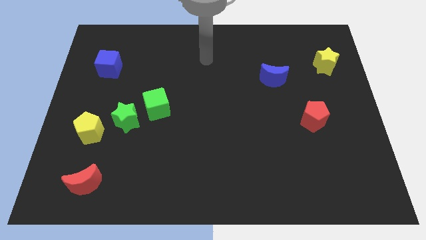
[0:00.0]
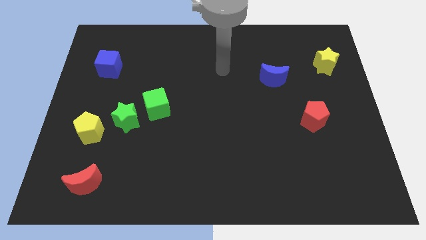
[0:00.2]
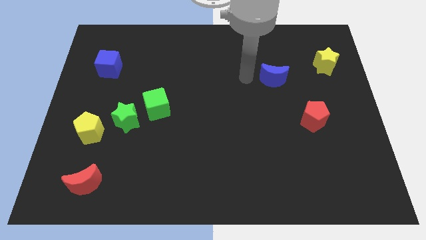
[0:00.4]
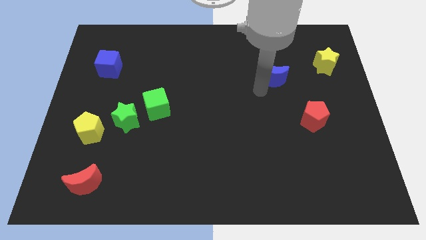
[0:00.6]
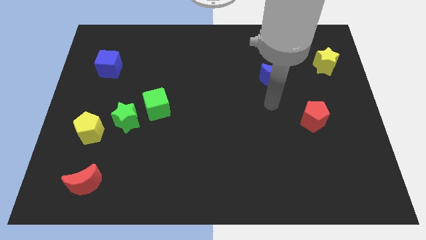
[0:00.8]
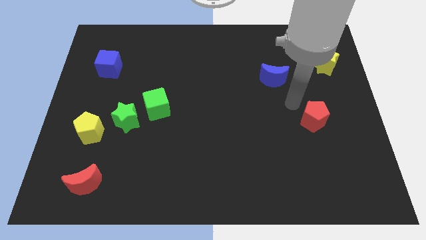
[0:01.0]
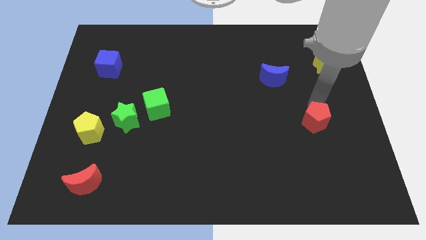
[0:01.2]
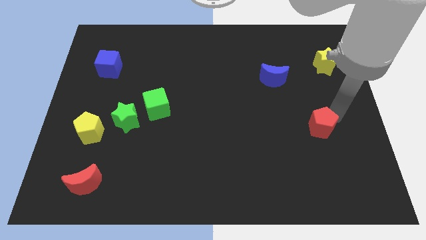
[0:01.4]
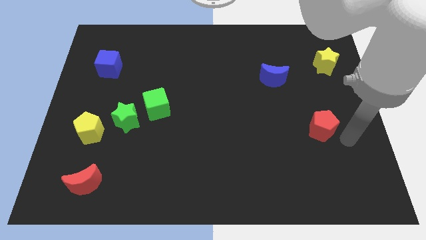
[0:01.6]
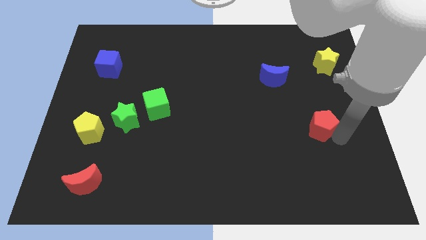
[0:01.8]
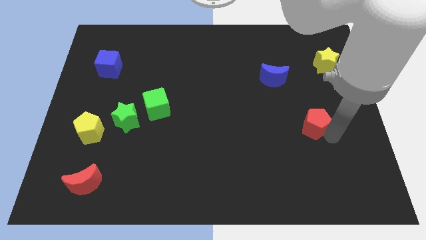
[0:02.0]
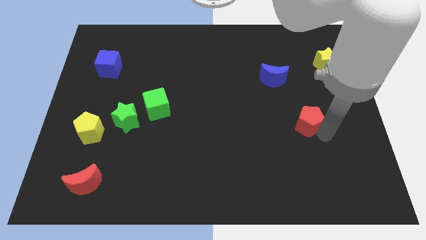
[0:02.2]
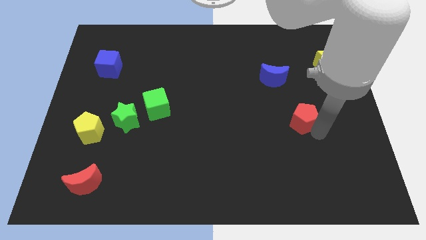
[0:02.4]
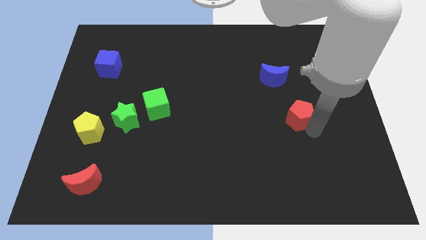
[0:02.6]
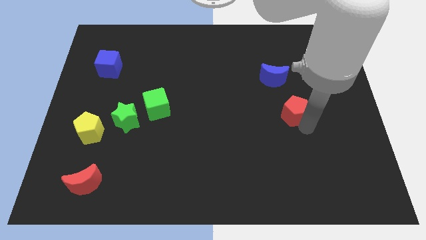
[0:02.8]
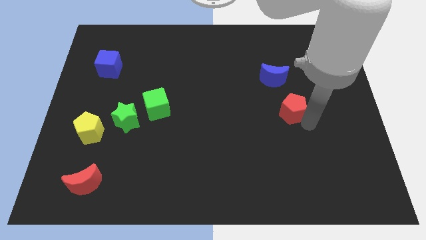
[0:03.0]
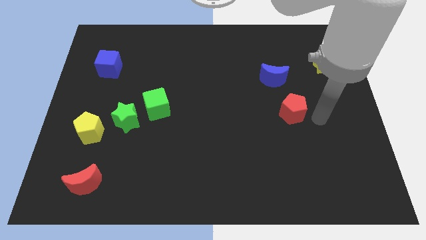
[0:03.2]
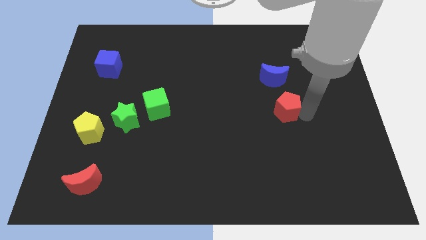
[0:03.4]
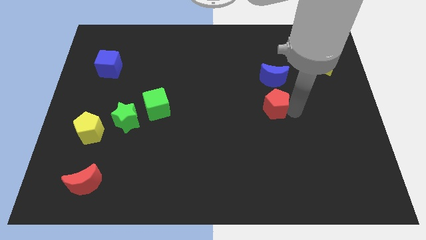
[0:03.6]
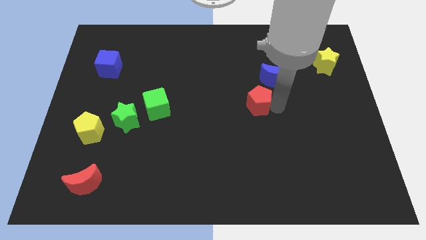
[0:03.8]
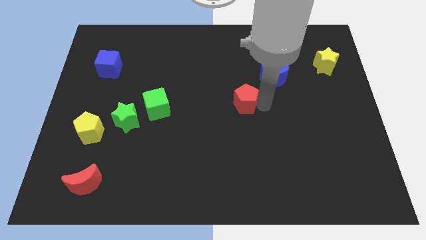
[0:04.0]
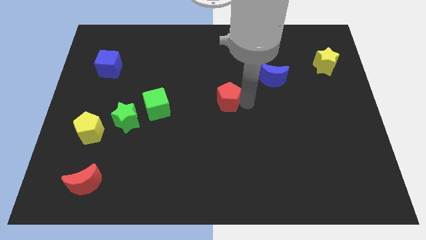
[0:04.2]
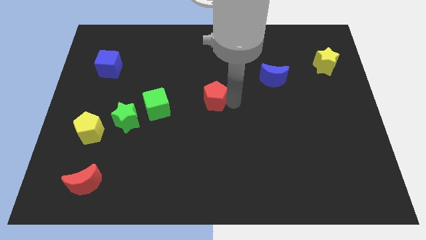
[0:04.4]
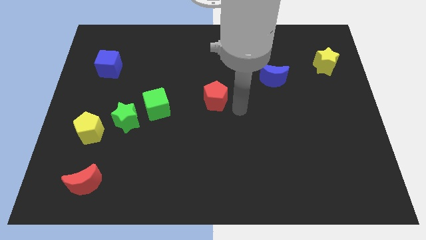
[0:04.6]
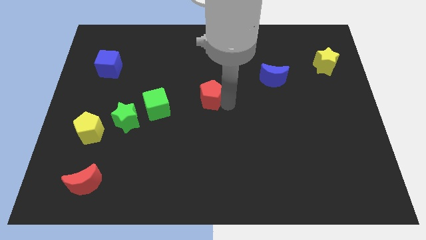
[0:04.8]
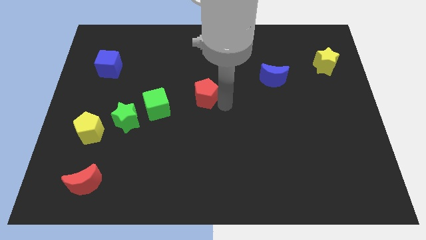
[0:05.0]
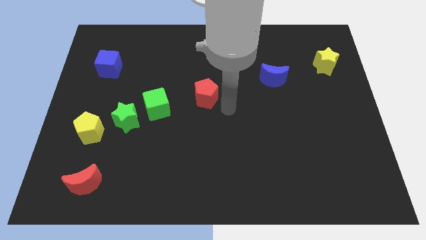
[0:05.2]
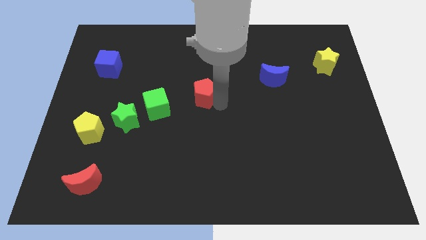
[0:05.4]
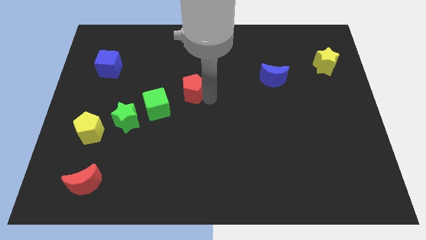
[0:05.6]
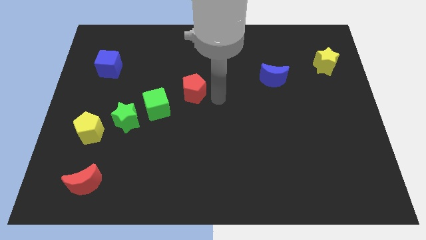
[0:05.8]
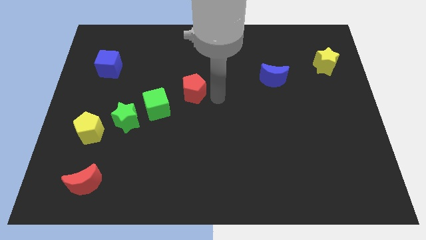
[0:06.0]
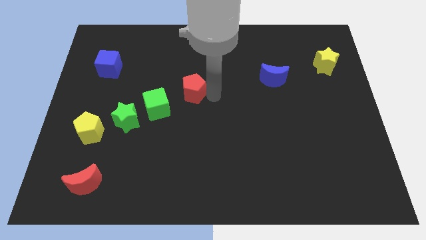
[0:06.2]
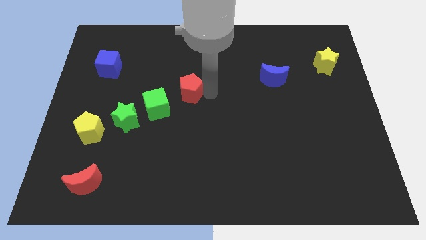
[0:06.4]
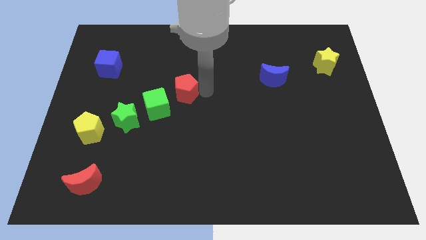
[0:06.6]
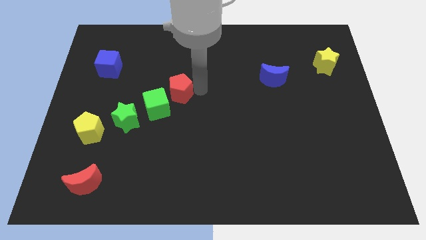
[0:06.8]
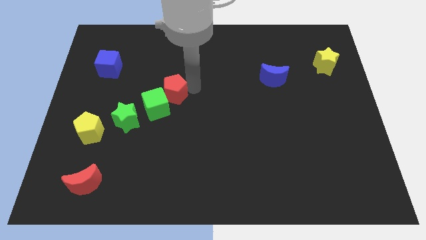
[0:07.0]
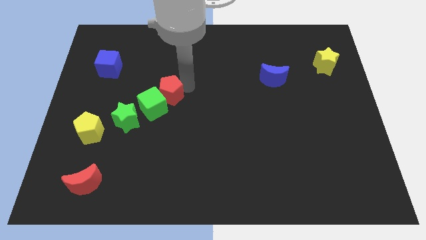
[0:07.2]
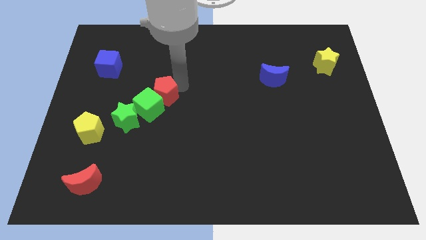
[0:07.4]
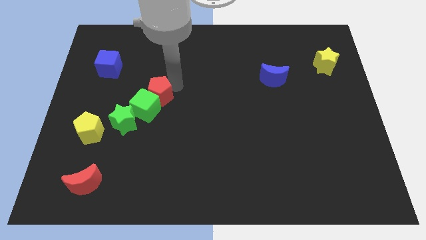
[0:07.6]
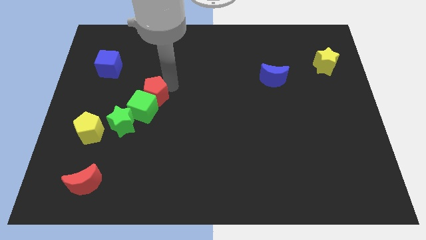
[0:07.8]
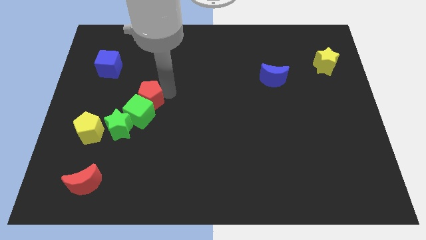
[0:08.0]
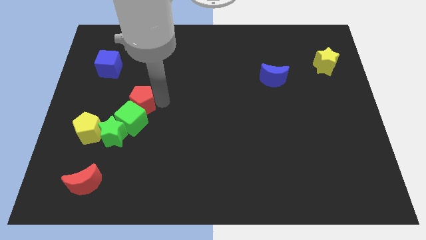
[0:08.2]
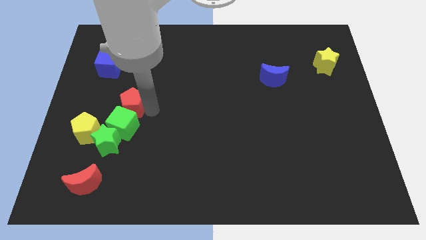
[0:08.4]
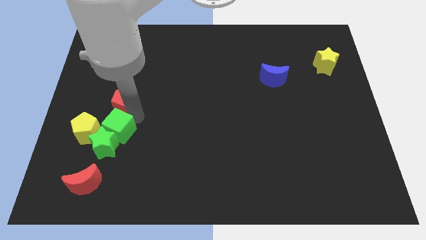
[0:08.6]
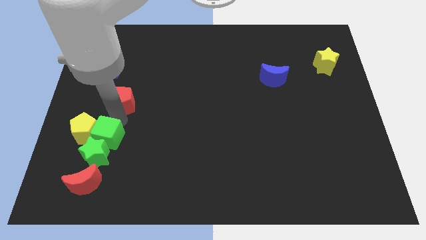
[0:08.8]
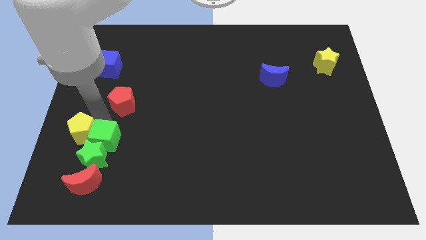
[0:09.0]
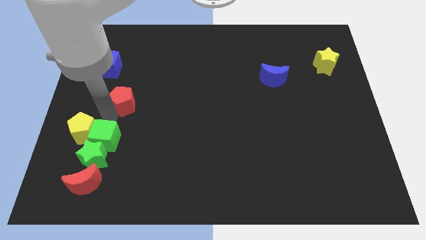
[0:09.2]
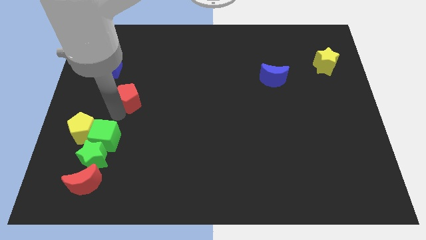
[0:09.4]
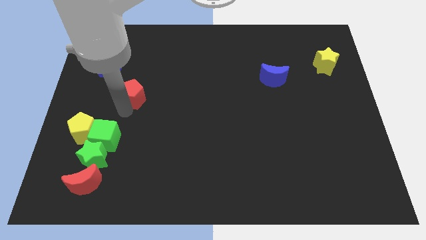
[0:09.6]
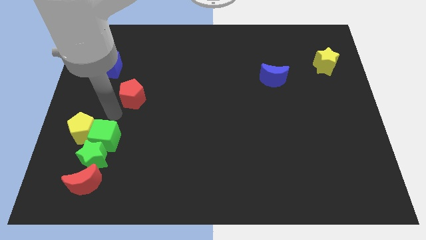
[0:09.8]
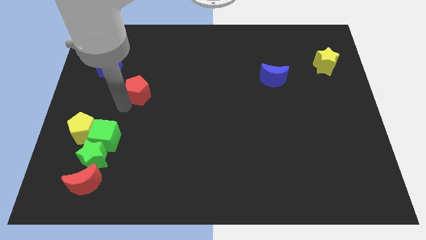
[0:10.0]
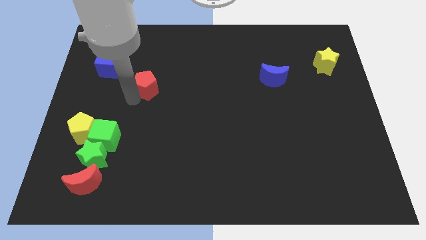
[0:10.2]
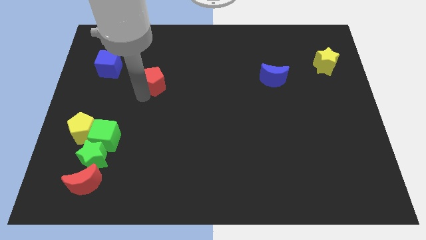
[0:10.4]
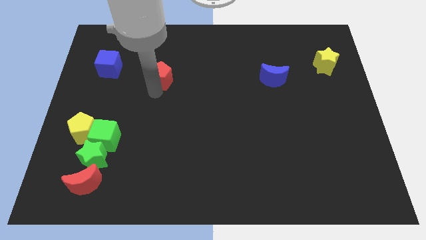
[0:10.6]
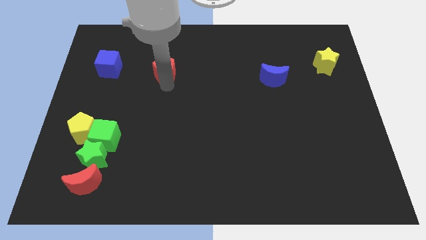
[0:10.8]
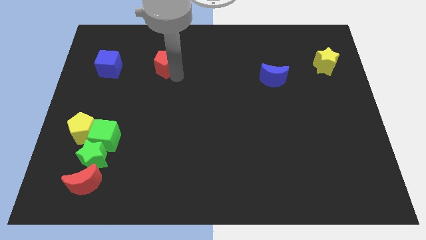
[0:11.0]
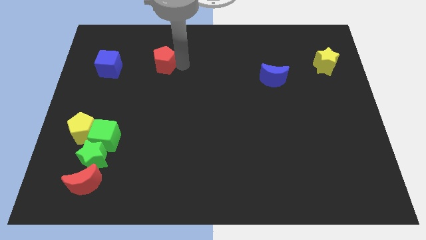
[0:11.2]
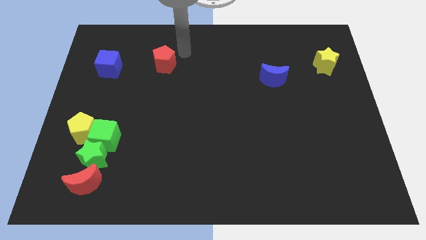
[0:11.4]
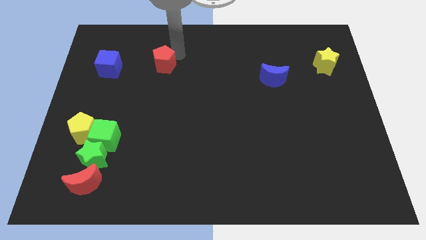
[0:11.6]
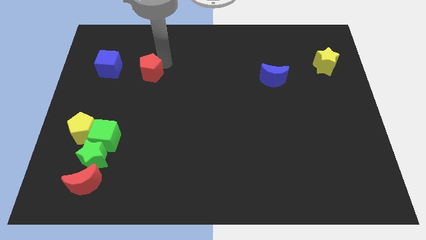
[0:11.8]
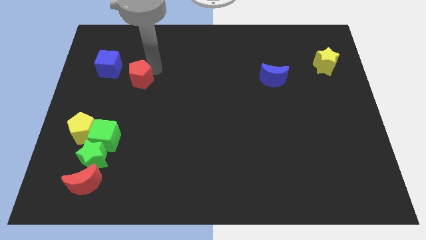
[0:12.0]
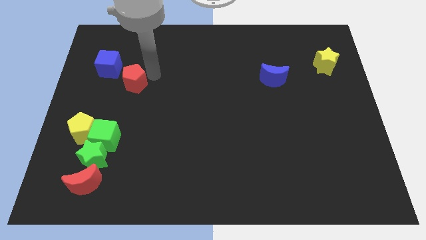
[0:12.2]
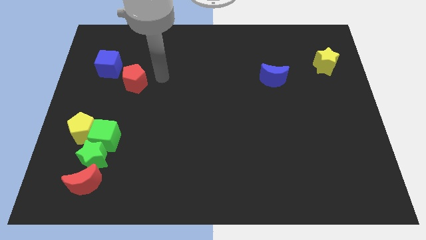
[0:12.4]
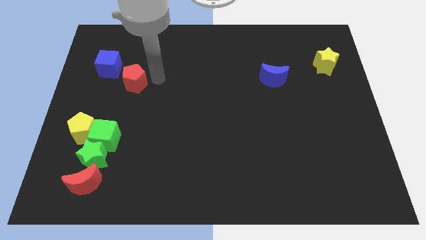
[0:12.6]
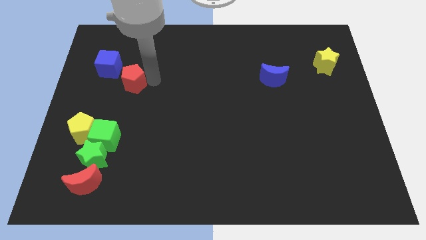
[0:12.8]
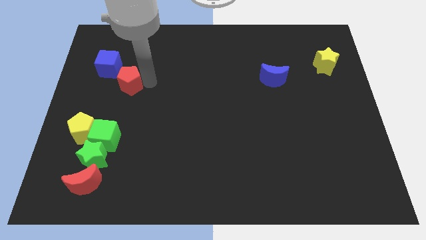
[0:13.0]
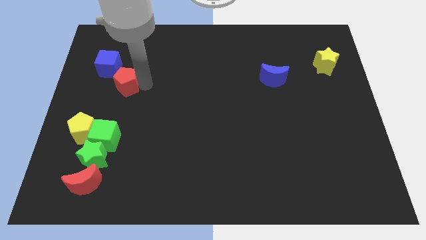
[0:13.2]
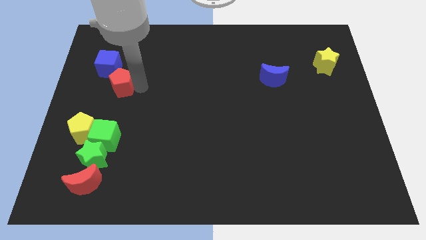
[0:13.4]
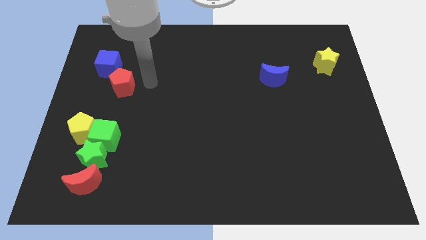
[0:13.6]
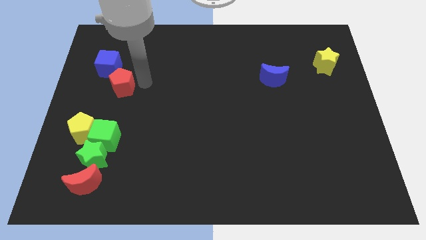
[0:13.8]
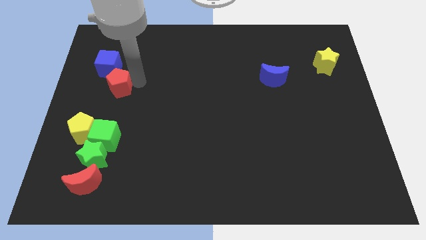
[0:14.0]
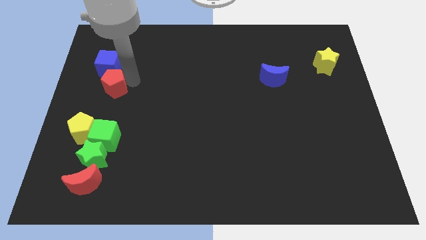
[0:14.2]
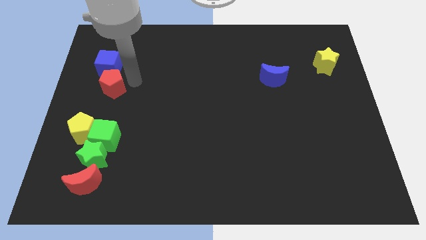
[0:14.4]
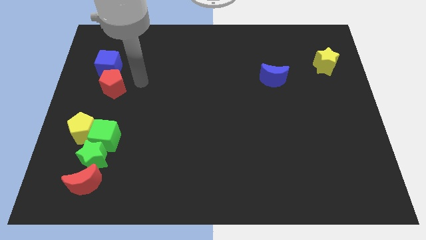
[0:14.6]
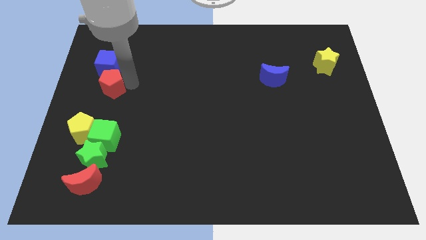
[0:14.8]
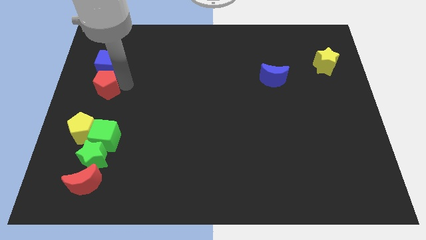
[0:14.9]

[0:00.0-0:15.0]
move the red pentagon to the center left
